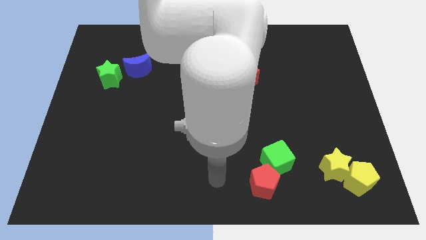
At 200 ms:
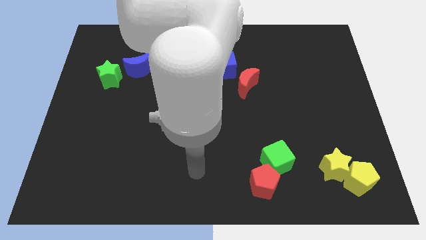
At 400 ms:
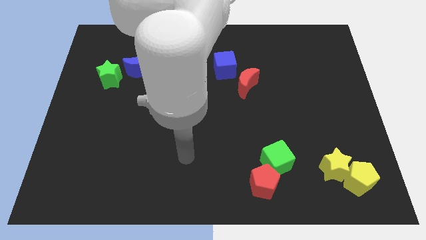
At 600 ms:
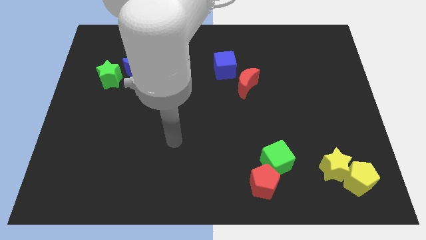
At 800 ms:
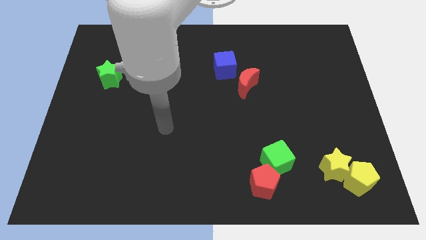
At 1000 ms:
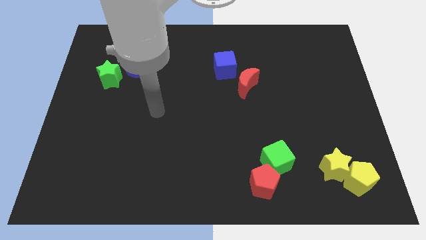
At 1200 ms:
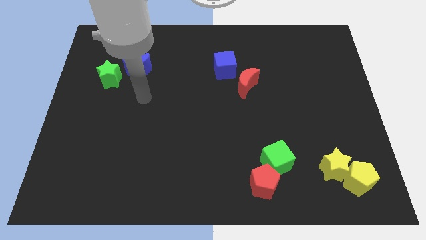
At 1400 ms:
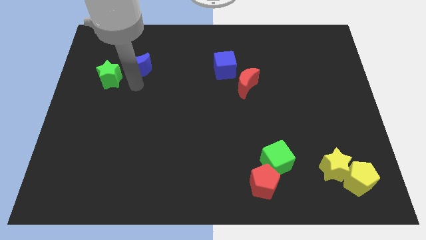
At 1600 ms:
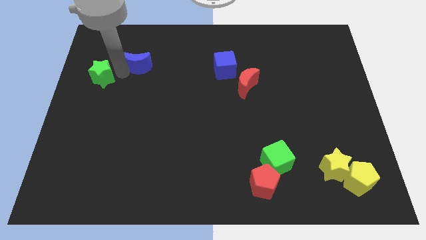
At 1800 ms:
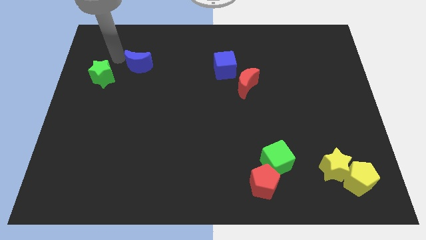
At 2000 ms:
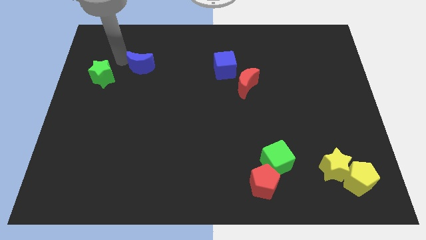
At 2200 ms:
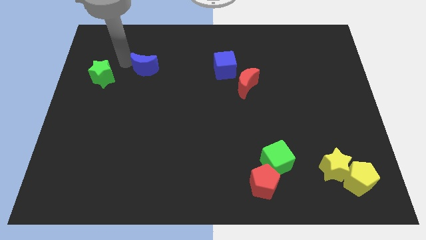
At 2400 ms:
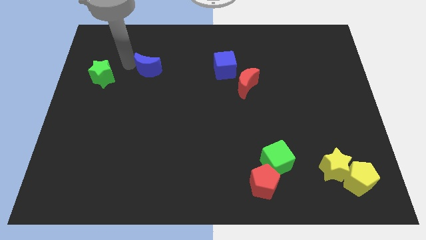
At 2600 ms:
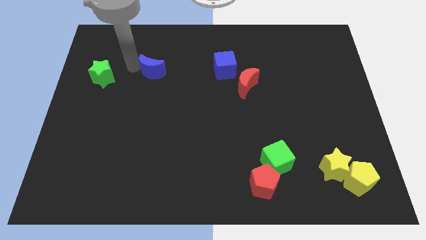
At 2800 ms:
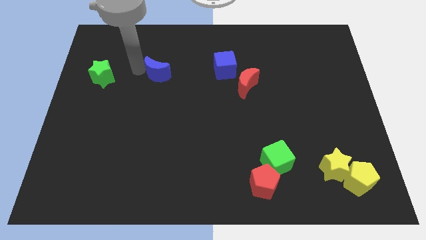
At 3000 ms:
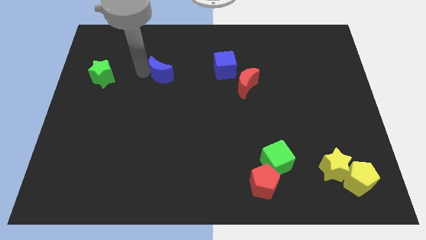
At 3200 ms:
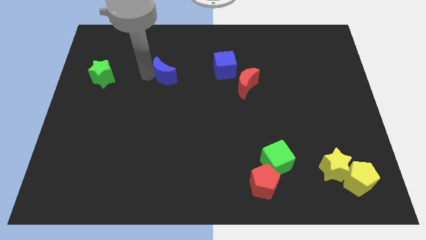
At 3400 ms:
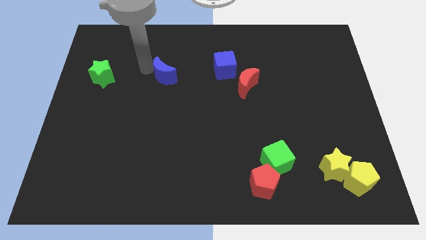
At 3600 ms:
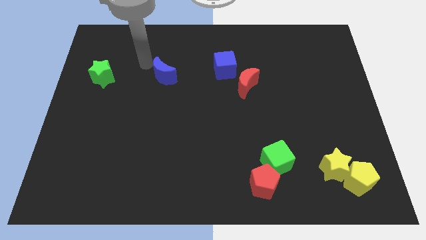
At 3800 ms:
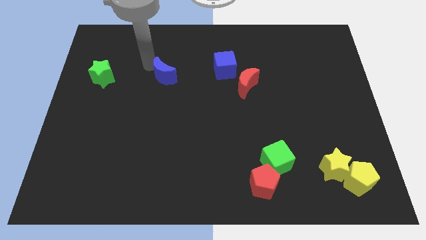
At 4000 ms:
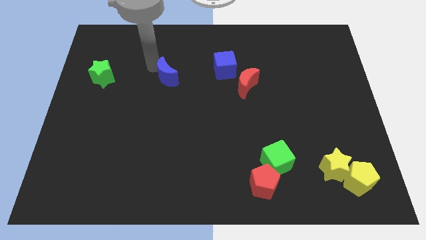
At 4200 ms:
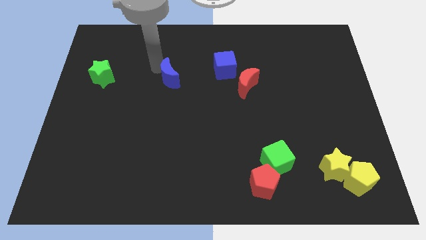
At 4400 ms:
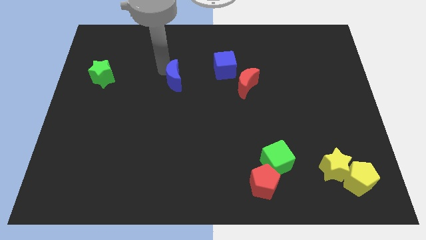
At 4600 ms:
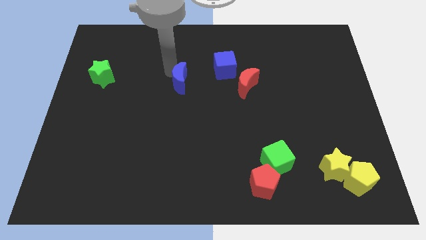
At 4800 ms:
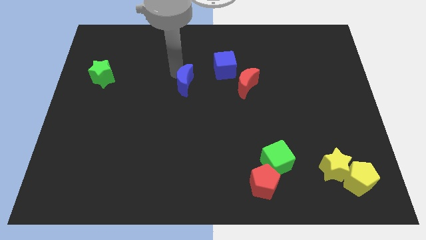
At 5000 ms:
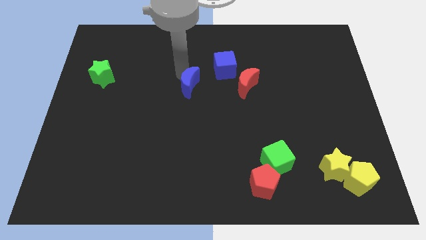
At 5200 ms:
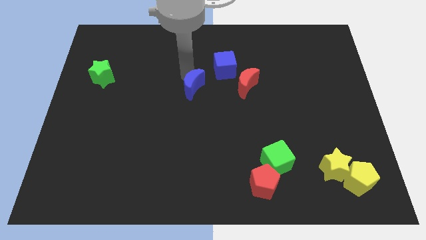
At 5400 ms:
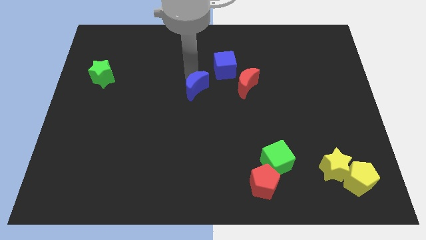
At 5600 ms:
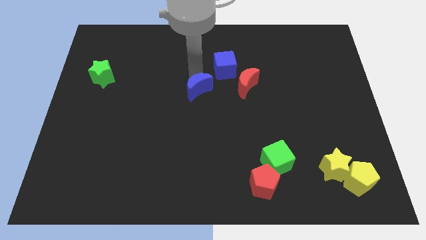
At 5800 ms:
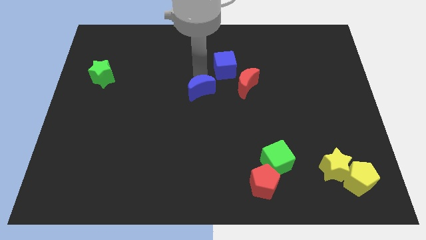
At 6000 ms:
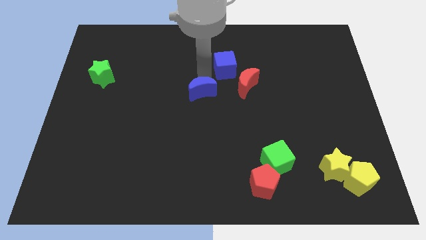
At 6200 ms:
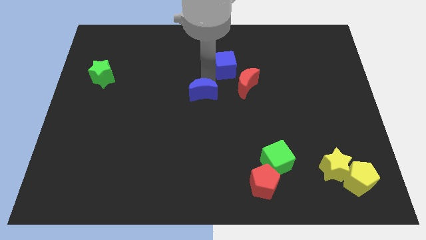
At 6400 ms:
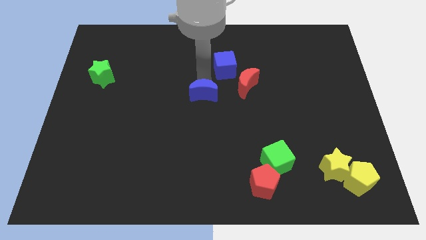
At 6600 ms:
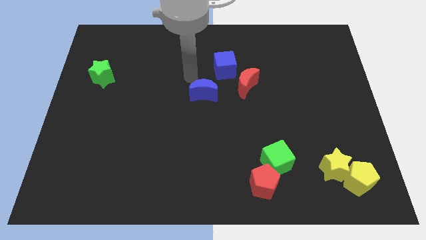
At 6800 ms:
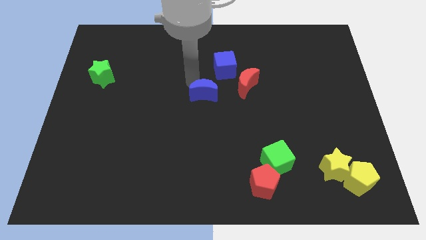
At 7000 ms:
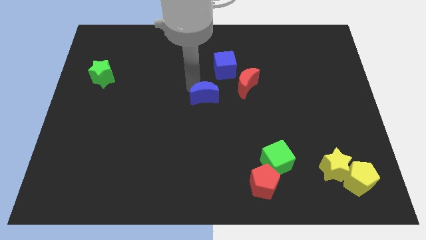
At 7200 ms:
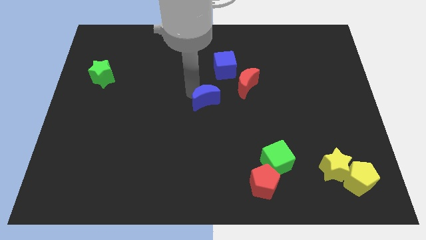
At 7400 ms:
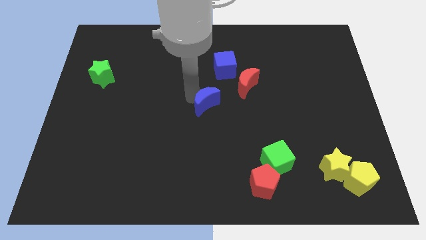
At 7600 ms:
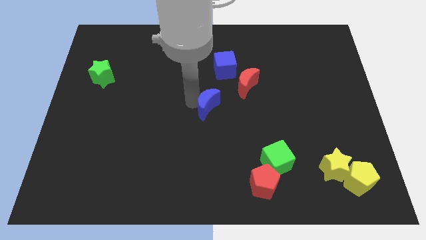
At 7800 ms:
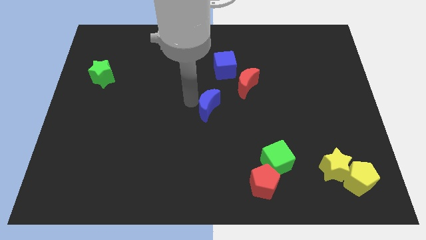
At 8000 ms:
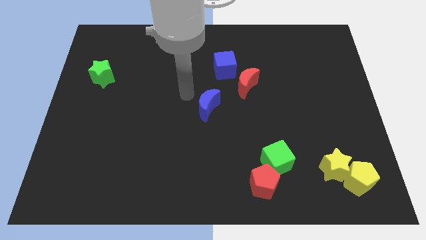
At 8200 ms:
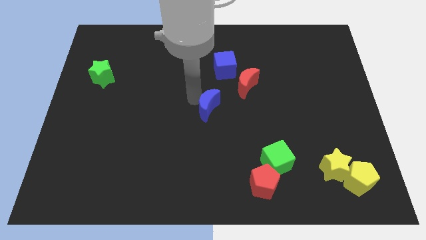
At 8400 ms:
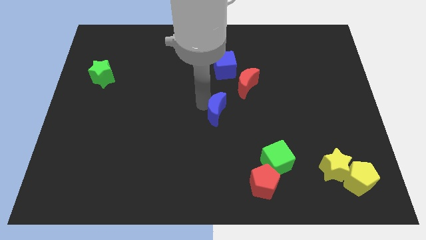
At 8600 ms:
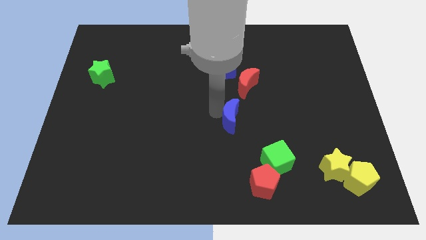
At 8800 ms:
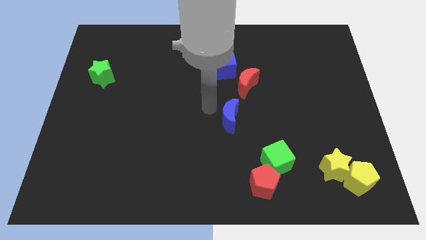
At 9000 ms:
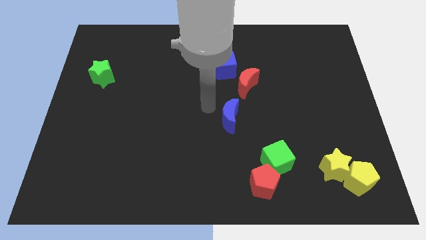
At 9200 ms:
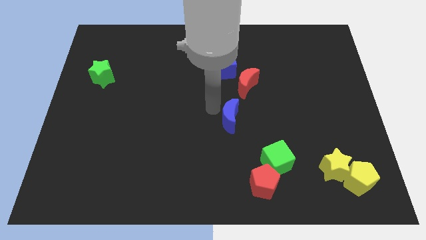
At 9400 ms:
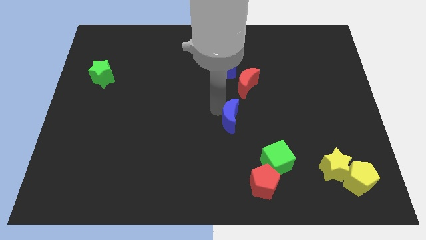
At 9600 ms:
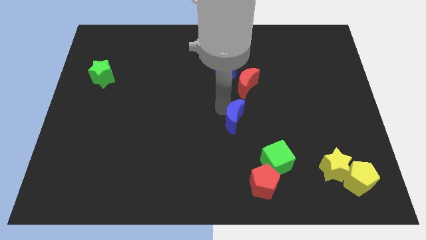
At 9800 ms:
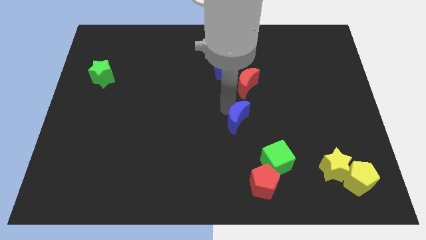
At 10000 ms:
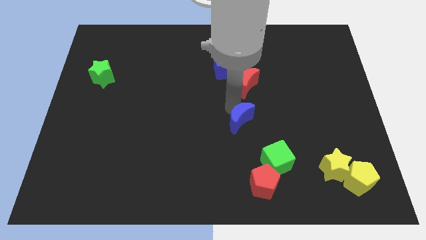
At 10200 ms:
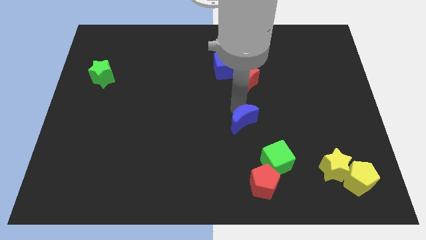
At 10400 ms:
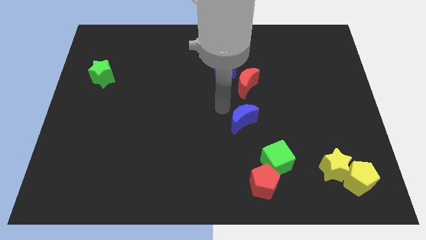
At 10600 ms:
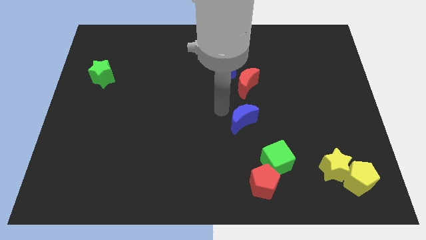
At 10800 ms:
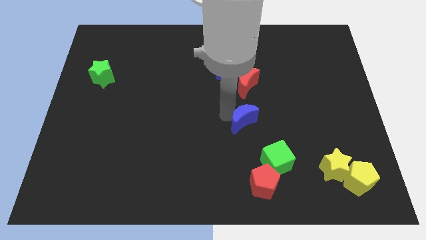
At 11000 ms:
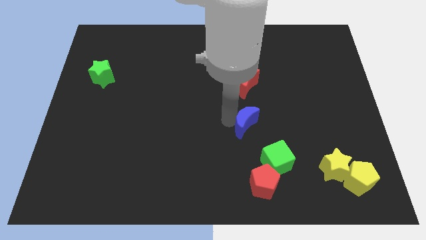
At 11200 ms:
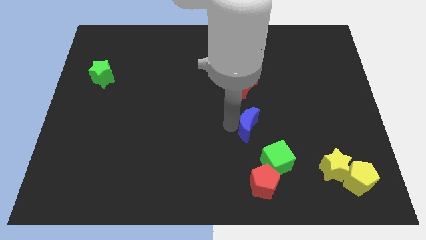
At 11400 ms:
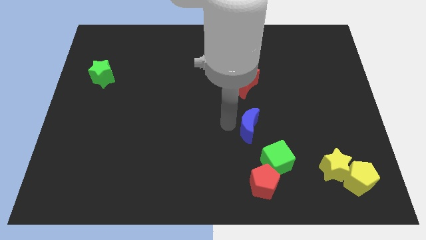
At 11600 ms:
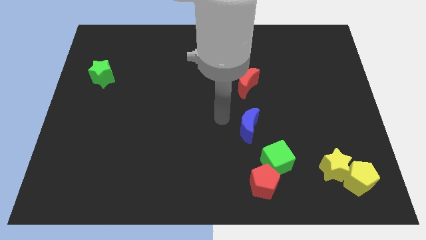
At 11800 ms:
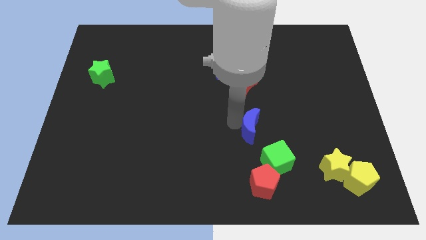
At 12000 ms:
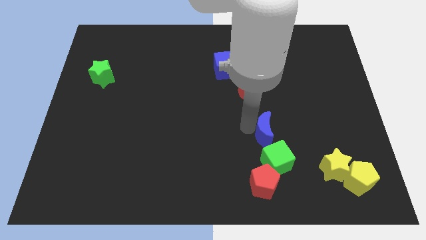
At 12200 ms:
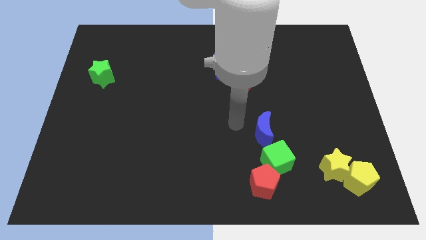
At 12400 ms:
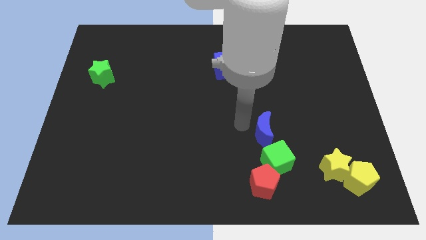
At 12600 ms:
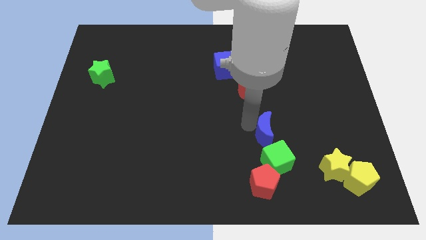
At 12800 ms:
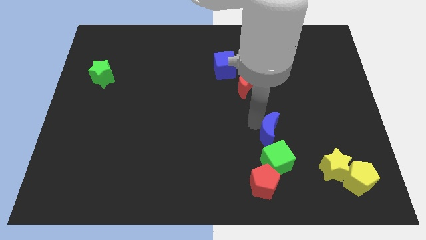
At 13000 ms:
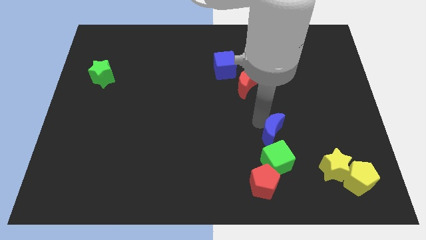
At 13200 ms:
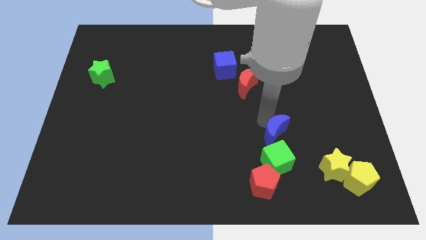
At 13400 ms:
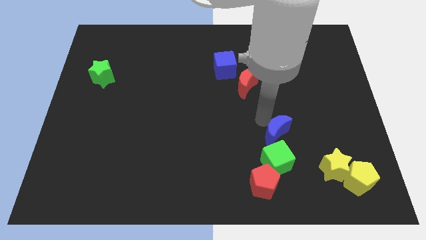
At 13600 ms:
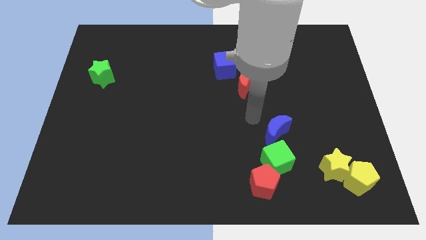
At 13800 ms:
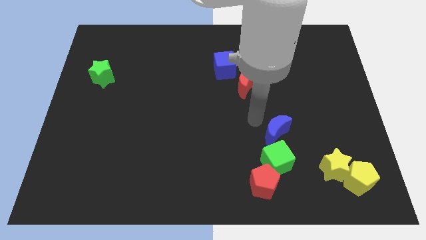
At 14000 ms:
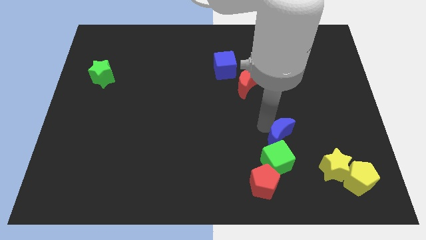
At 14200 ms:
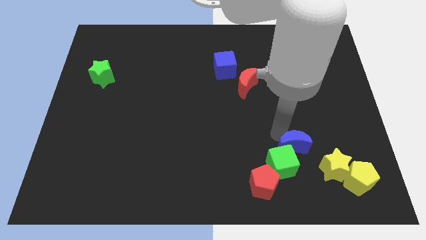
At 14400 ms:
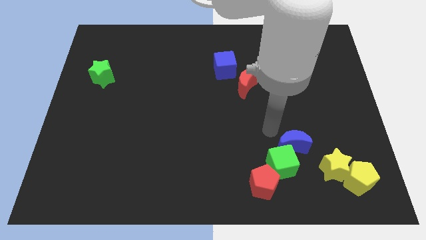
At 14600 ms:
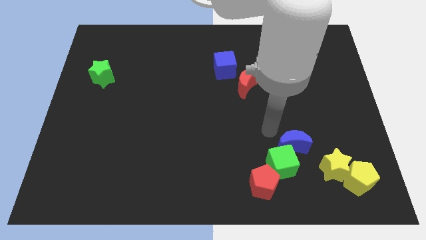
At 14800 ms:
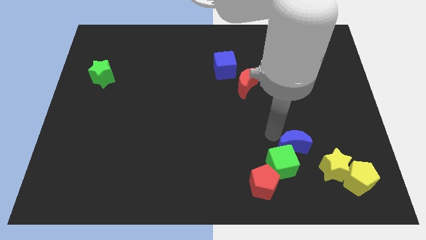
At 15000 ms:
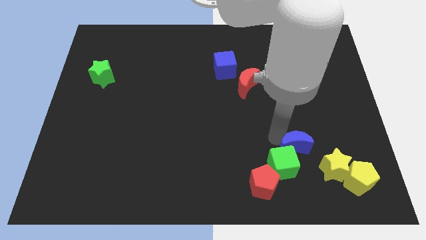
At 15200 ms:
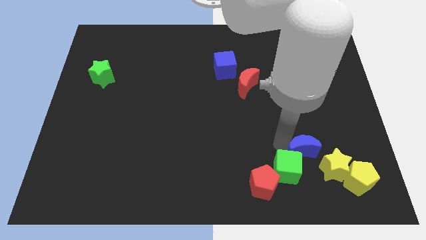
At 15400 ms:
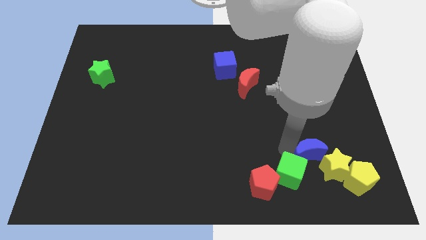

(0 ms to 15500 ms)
put the blue moon to the yellow star
